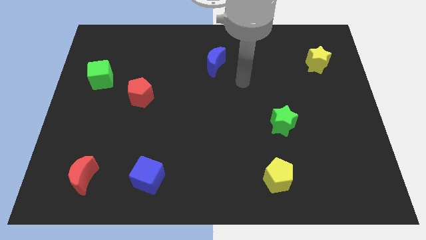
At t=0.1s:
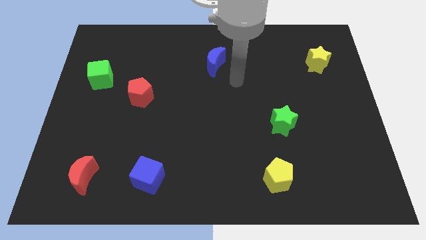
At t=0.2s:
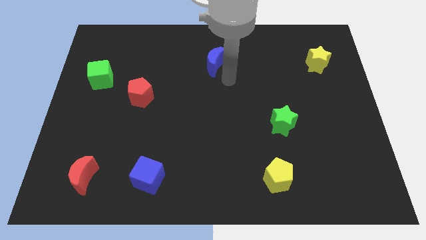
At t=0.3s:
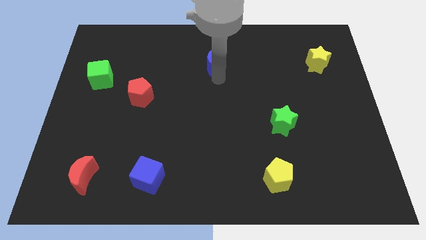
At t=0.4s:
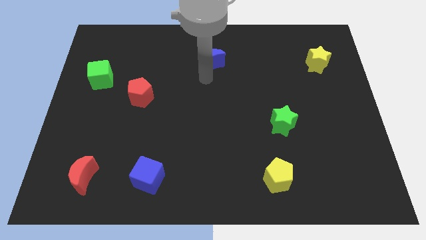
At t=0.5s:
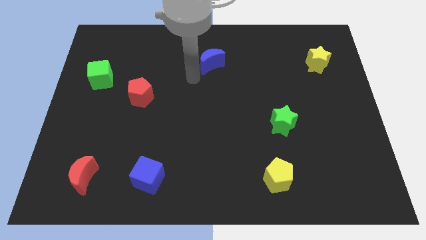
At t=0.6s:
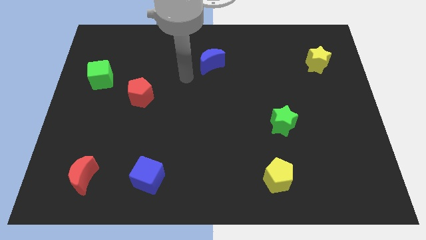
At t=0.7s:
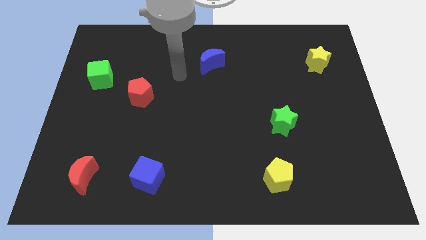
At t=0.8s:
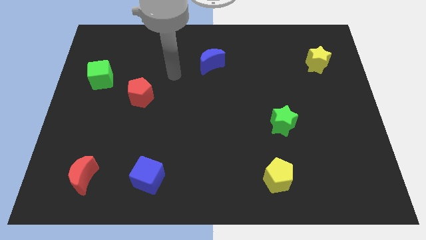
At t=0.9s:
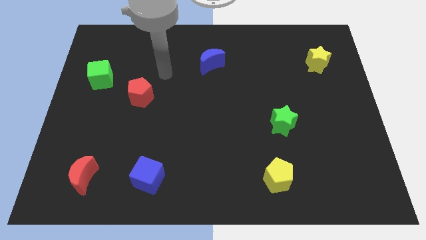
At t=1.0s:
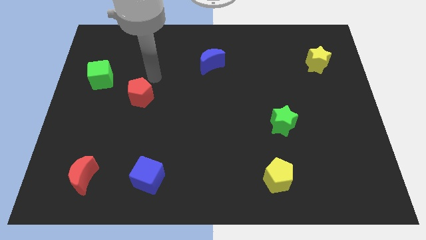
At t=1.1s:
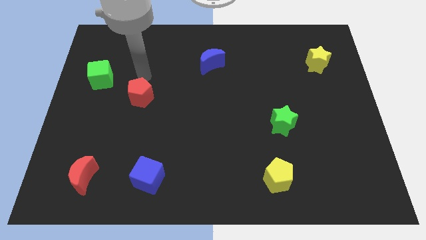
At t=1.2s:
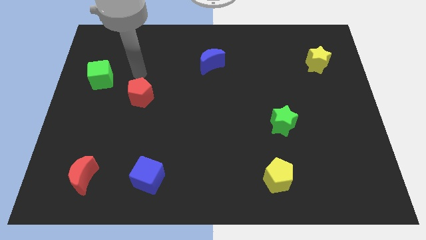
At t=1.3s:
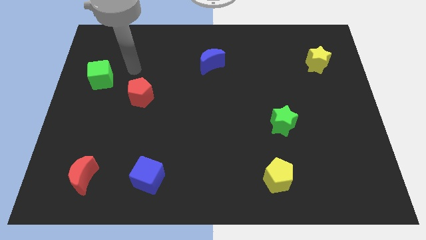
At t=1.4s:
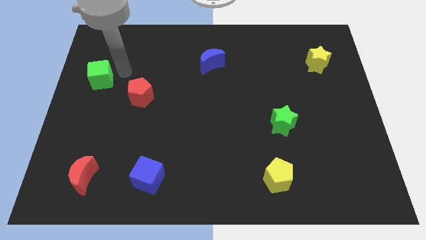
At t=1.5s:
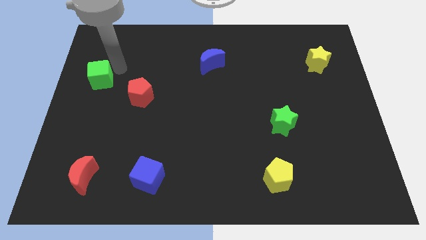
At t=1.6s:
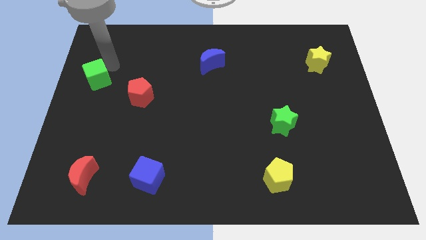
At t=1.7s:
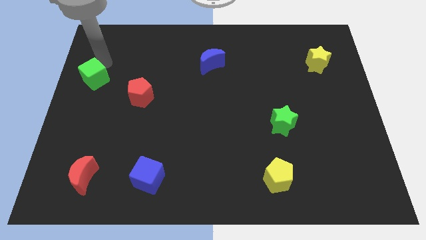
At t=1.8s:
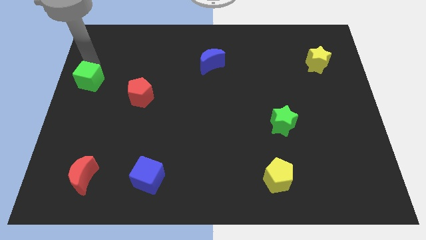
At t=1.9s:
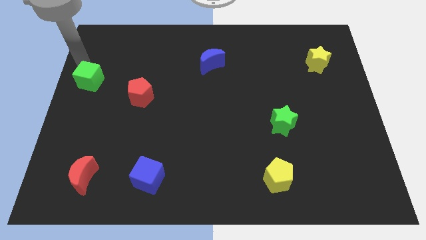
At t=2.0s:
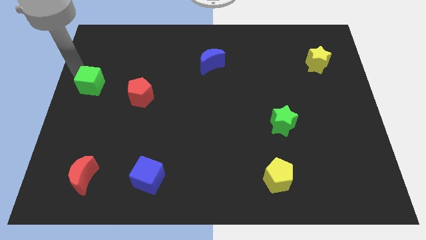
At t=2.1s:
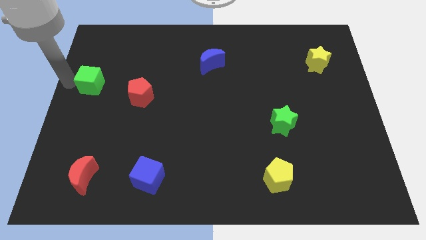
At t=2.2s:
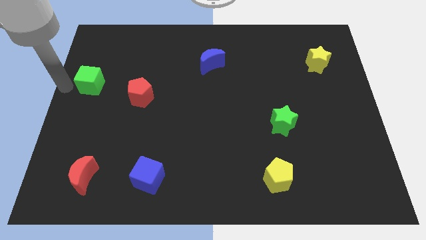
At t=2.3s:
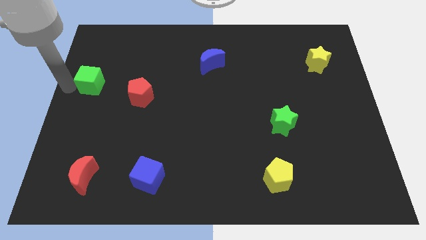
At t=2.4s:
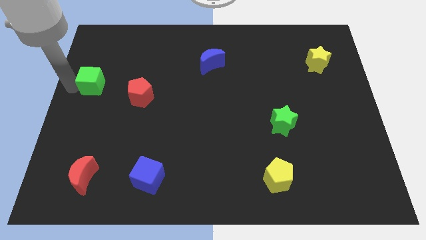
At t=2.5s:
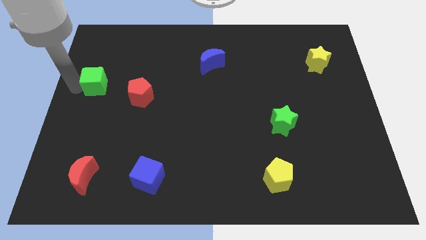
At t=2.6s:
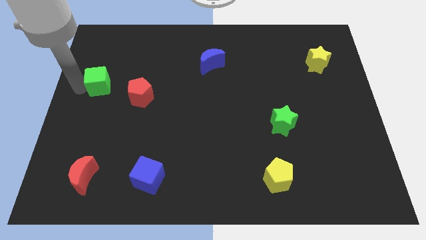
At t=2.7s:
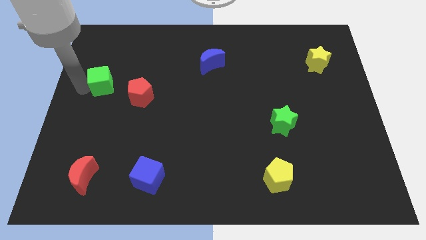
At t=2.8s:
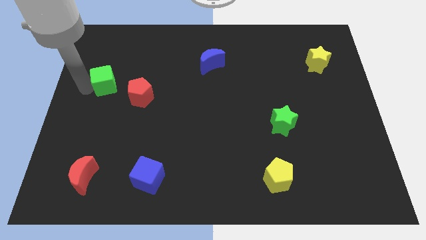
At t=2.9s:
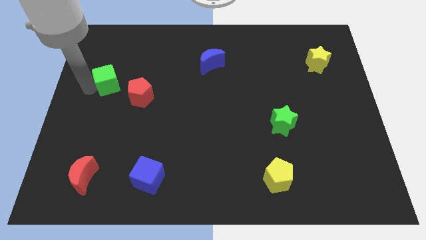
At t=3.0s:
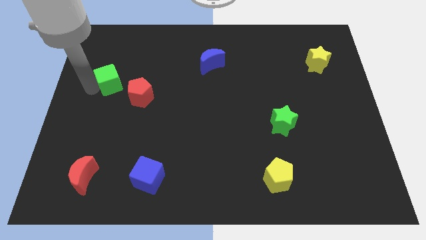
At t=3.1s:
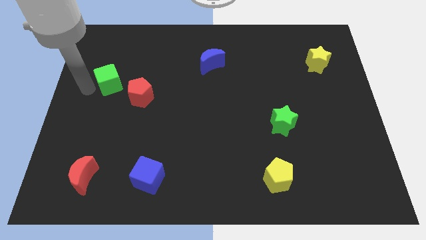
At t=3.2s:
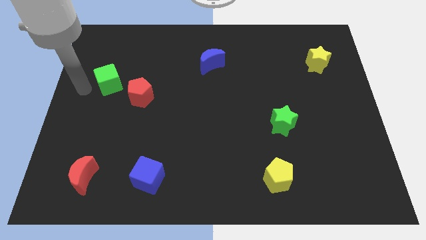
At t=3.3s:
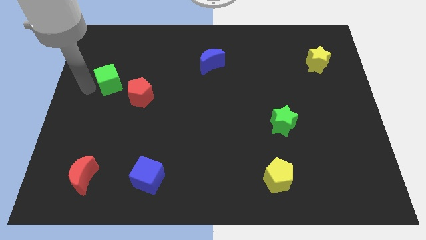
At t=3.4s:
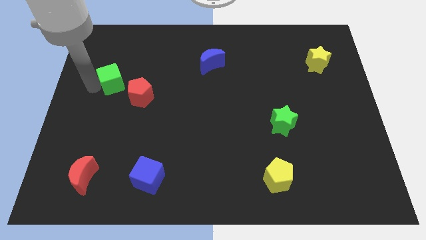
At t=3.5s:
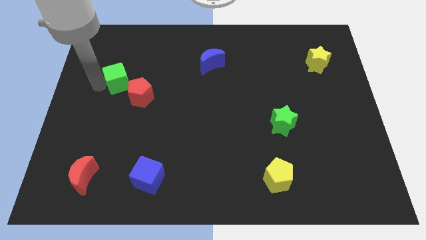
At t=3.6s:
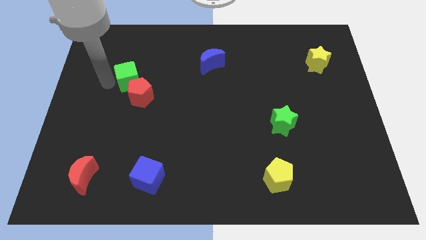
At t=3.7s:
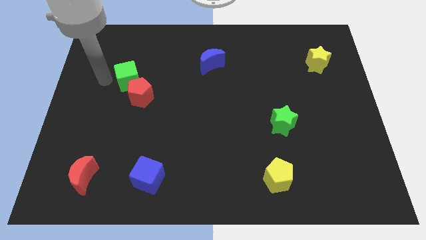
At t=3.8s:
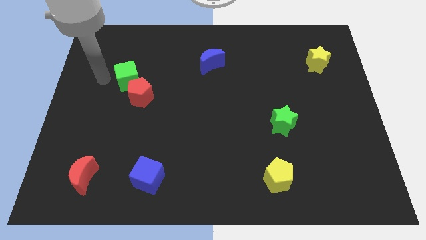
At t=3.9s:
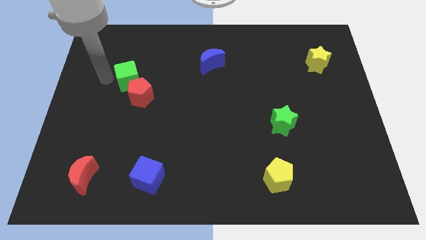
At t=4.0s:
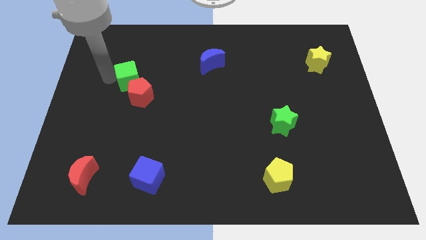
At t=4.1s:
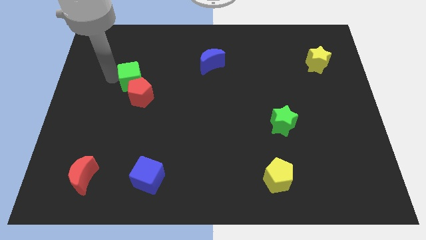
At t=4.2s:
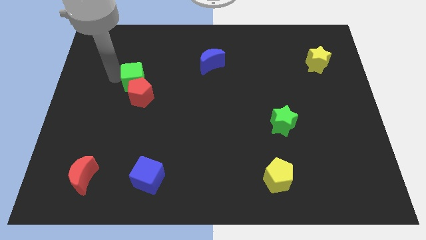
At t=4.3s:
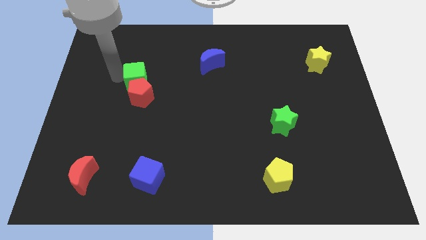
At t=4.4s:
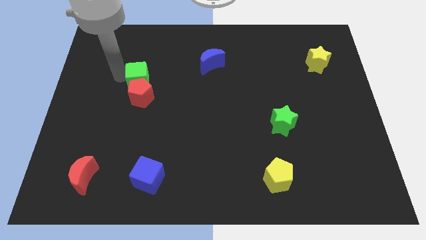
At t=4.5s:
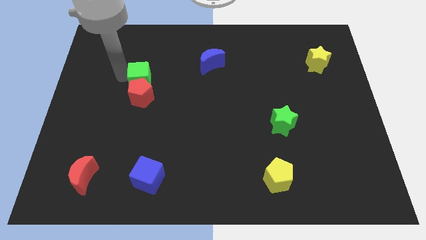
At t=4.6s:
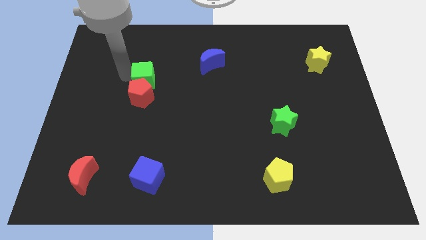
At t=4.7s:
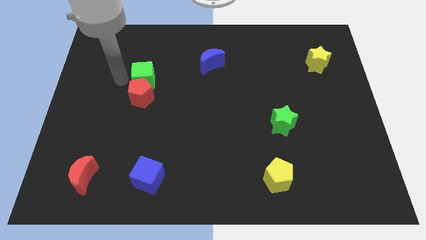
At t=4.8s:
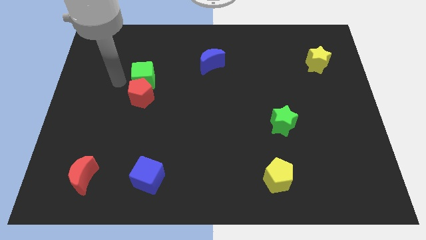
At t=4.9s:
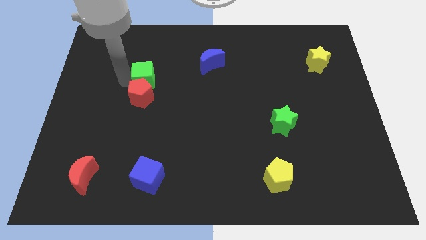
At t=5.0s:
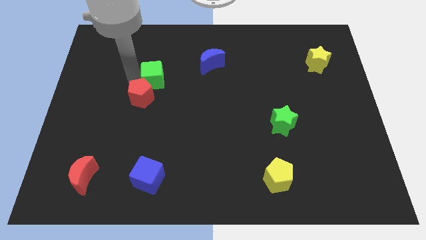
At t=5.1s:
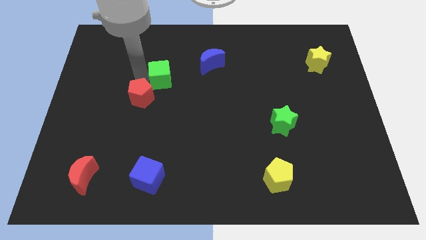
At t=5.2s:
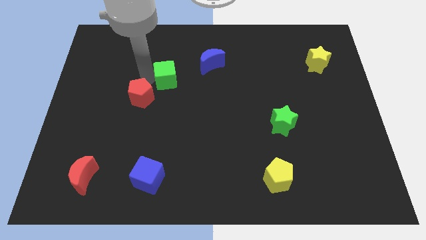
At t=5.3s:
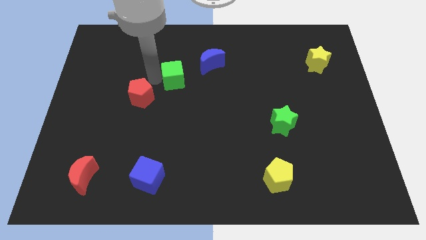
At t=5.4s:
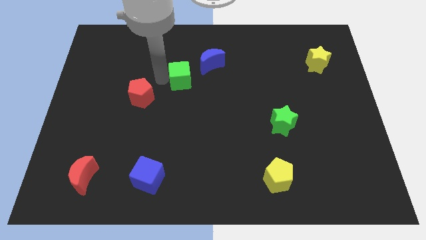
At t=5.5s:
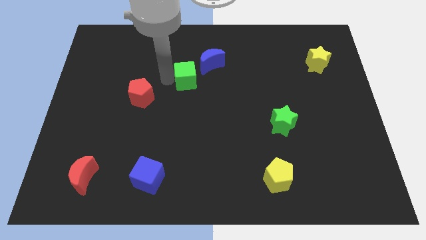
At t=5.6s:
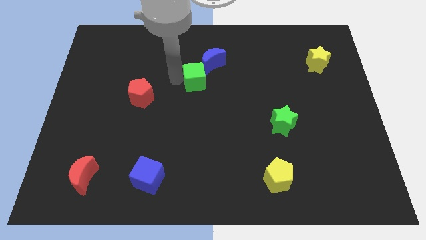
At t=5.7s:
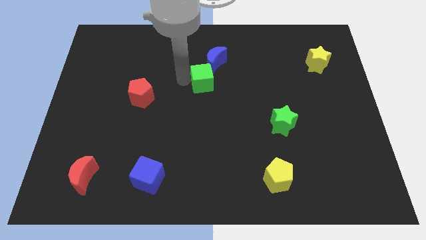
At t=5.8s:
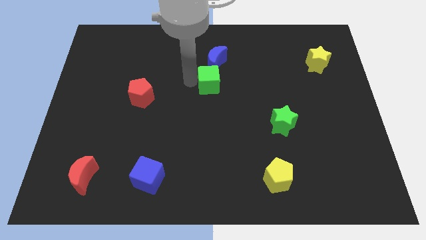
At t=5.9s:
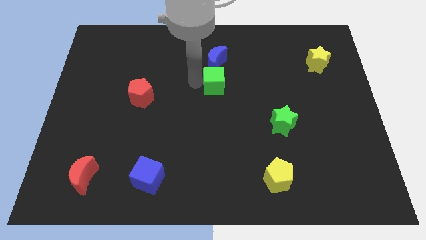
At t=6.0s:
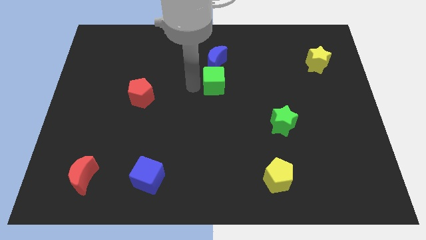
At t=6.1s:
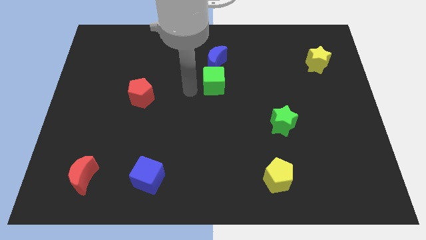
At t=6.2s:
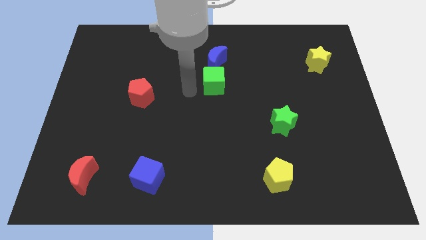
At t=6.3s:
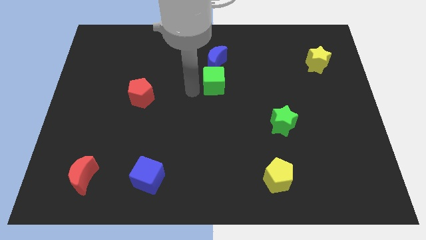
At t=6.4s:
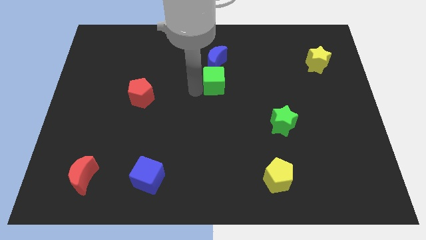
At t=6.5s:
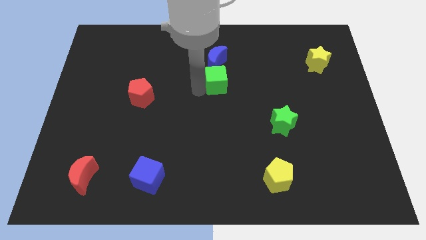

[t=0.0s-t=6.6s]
move the green cube diagonally down and to the right of the blue moon
